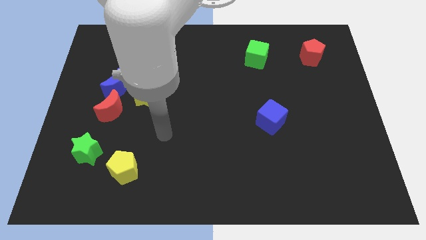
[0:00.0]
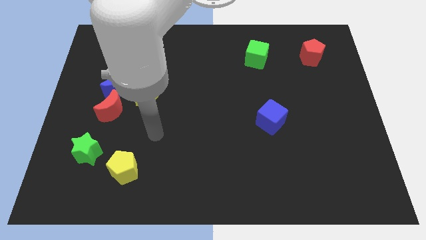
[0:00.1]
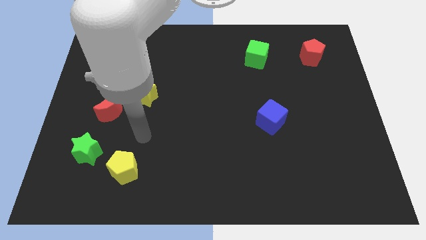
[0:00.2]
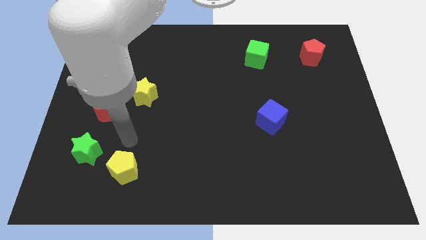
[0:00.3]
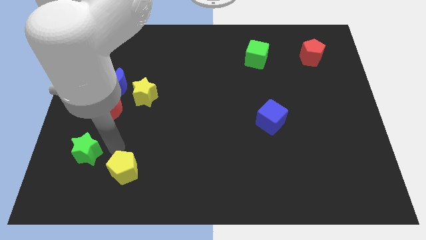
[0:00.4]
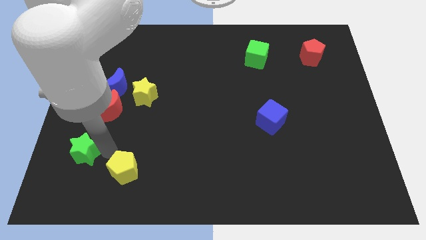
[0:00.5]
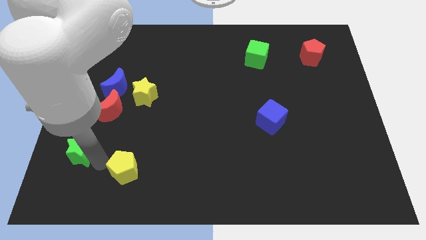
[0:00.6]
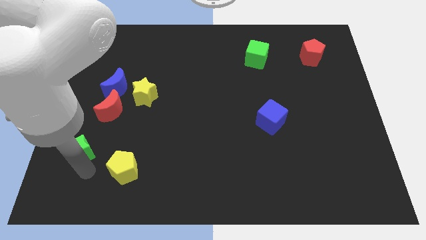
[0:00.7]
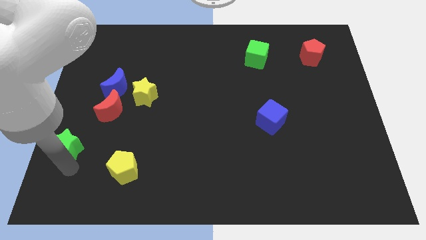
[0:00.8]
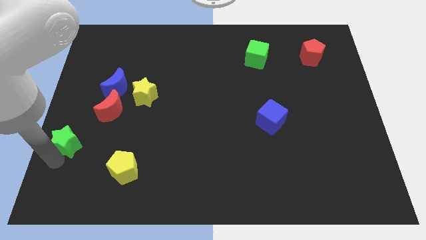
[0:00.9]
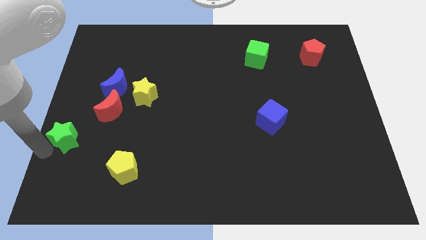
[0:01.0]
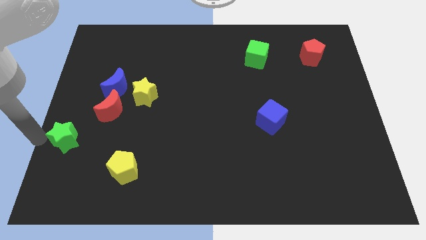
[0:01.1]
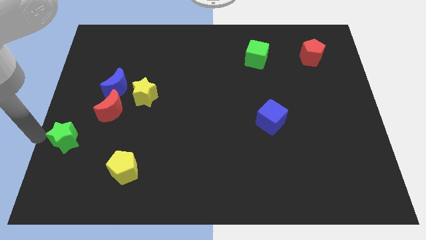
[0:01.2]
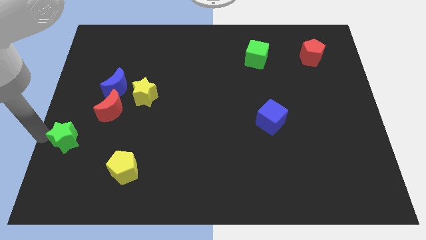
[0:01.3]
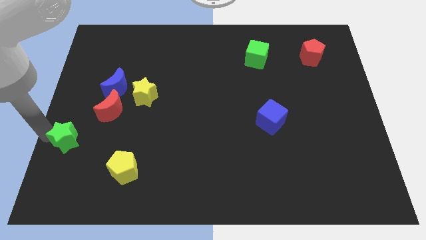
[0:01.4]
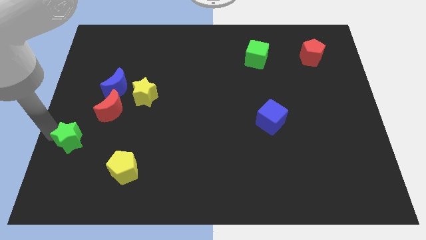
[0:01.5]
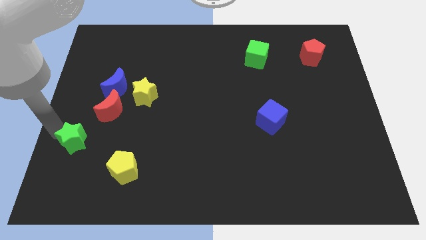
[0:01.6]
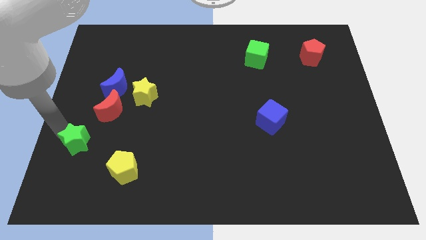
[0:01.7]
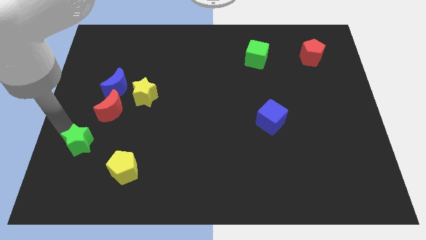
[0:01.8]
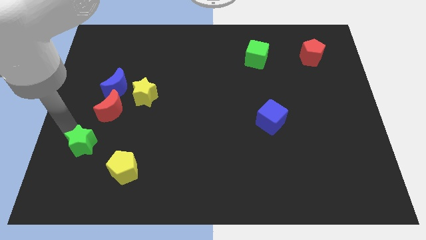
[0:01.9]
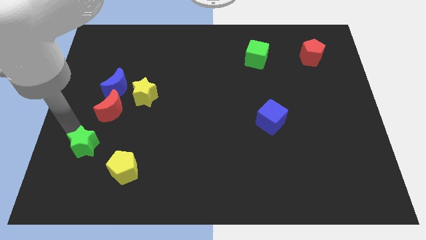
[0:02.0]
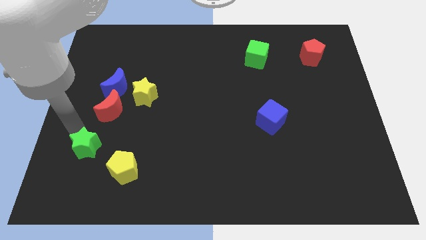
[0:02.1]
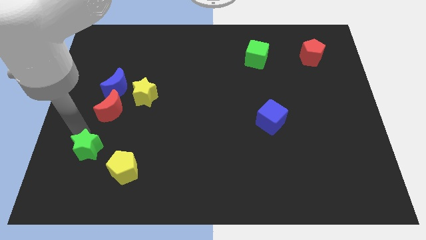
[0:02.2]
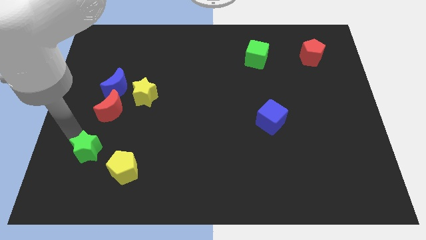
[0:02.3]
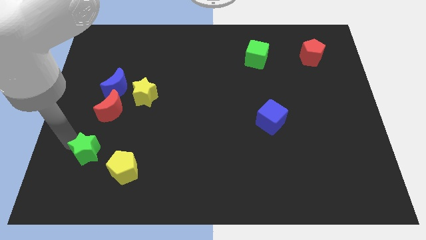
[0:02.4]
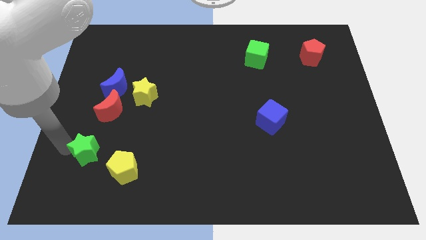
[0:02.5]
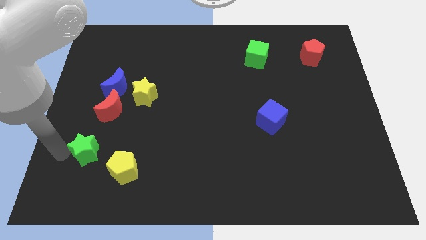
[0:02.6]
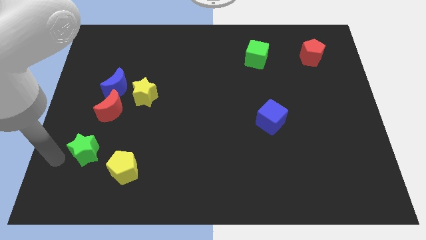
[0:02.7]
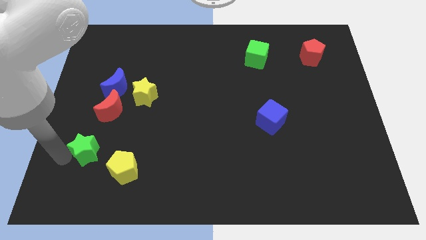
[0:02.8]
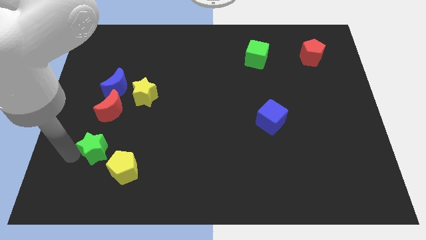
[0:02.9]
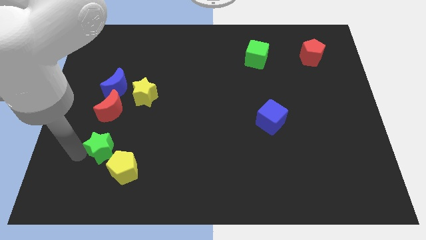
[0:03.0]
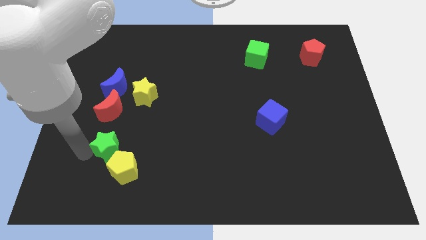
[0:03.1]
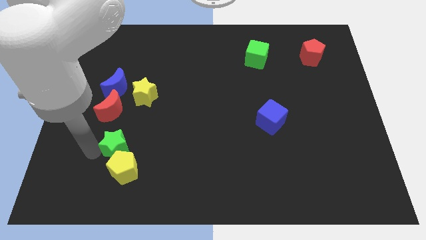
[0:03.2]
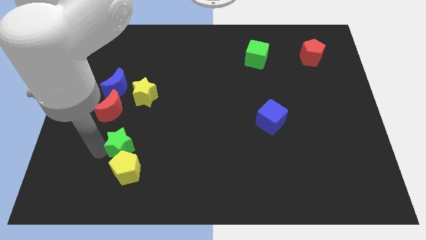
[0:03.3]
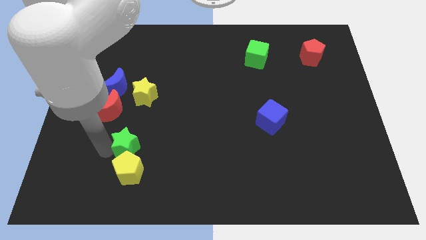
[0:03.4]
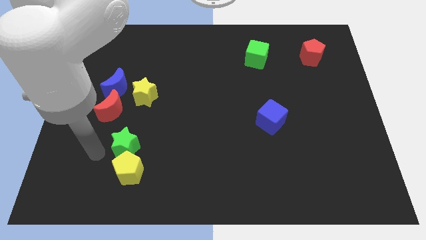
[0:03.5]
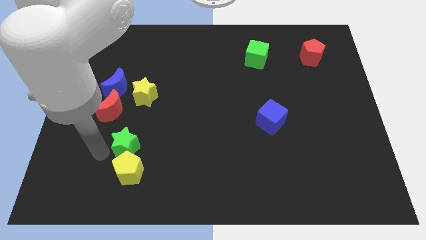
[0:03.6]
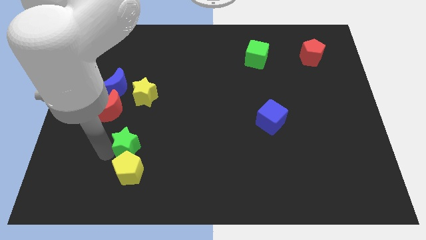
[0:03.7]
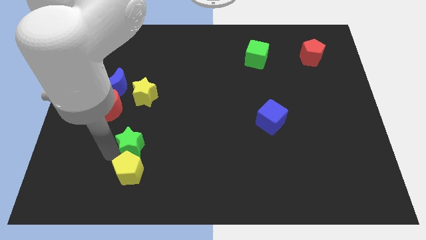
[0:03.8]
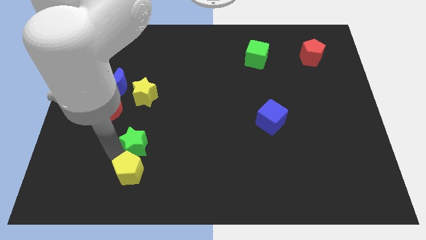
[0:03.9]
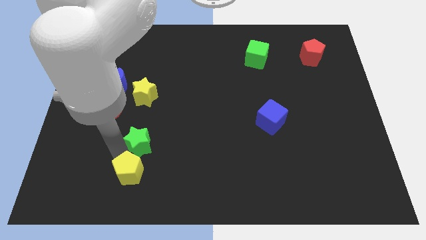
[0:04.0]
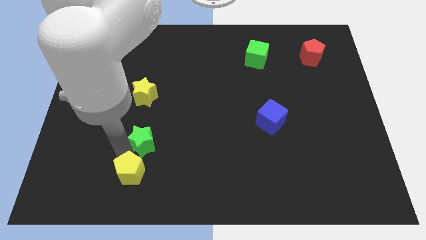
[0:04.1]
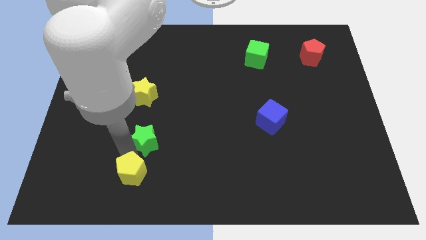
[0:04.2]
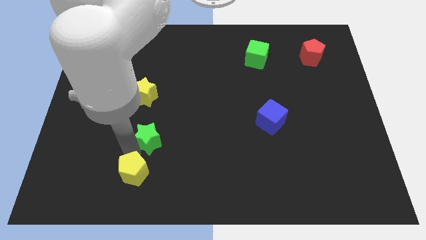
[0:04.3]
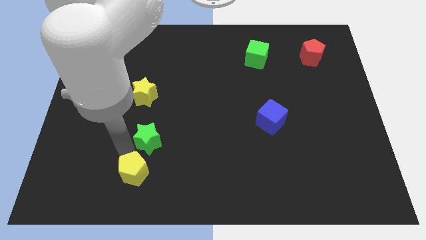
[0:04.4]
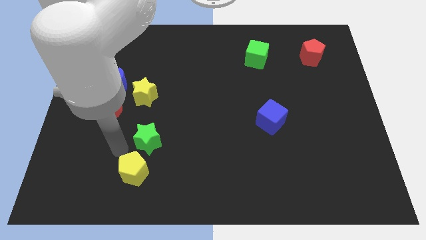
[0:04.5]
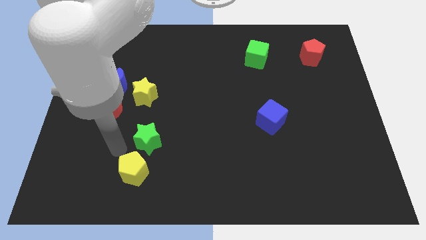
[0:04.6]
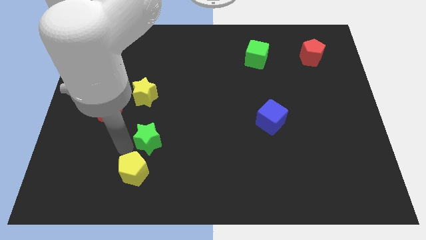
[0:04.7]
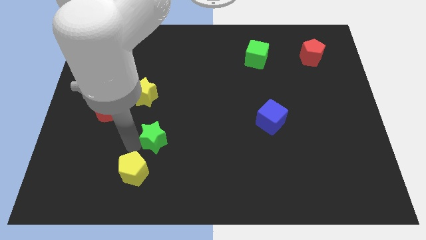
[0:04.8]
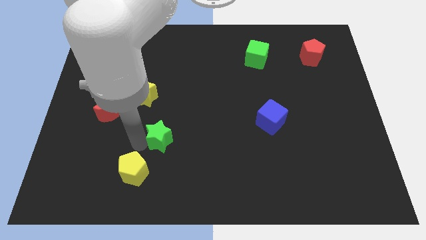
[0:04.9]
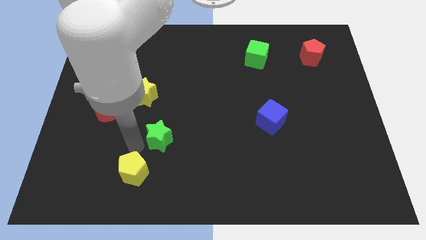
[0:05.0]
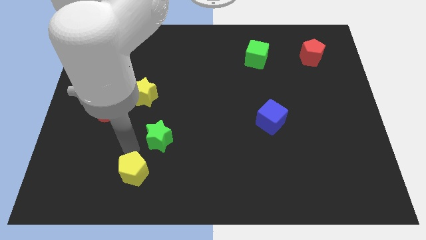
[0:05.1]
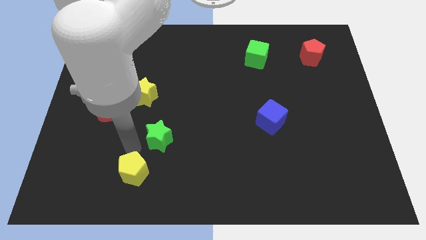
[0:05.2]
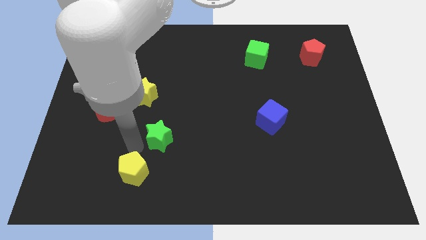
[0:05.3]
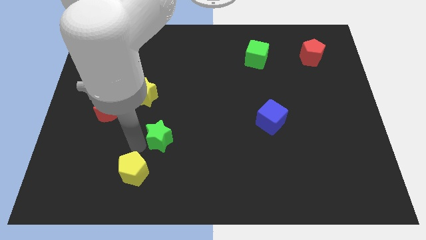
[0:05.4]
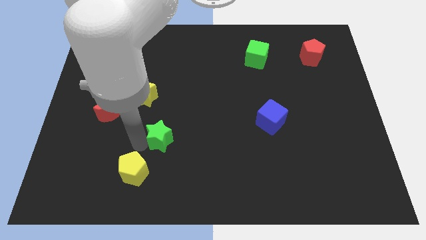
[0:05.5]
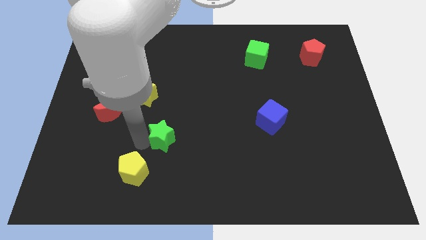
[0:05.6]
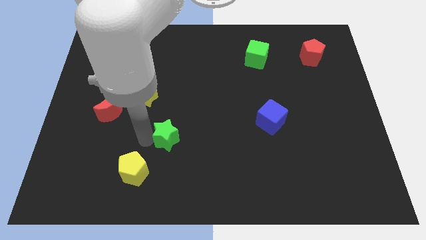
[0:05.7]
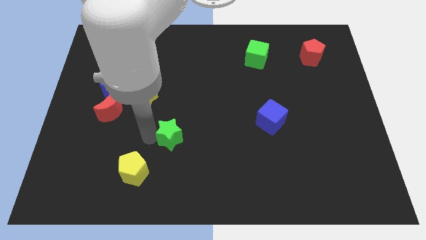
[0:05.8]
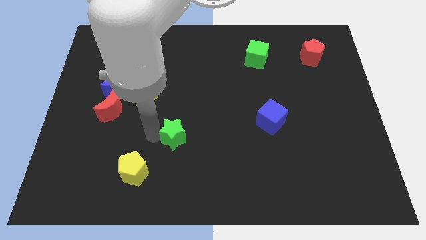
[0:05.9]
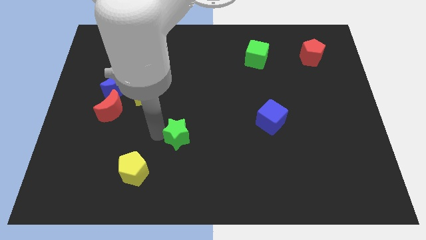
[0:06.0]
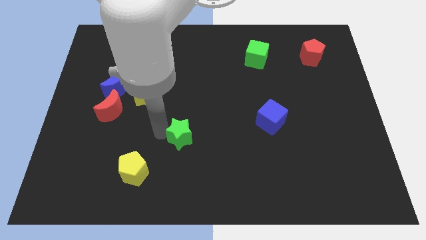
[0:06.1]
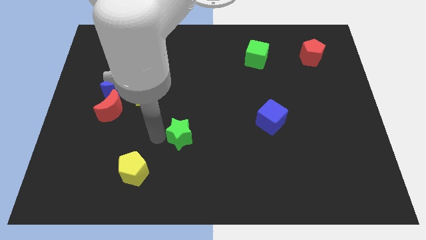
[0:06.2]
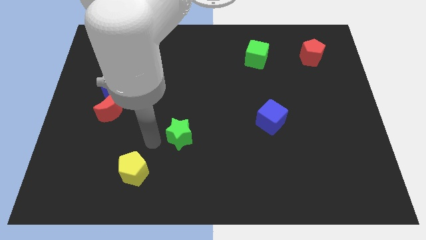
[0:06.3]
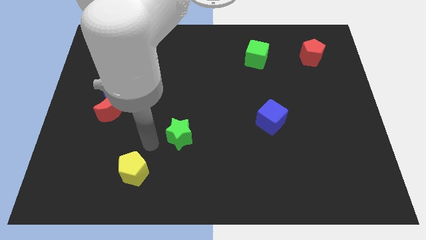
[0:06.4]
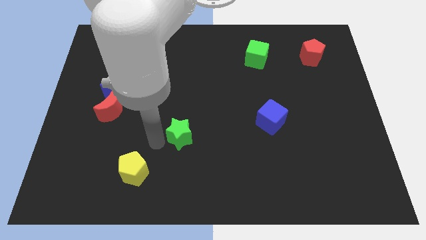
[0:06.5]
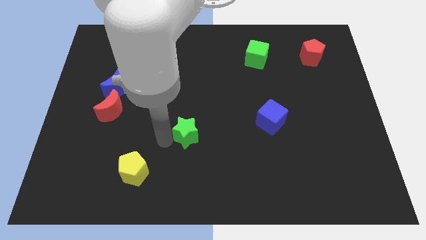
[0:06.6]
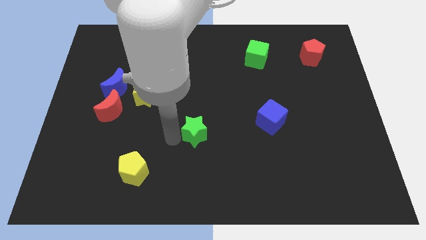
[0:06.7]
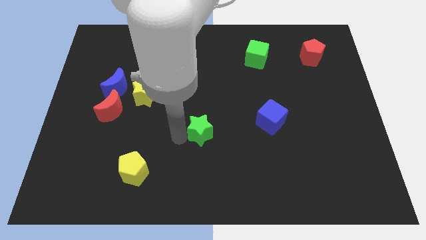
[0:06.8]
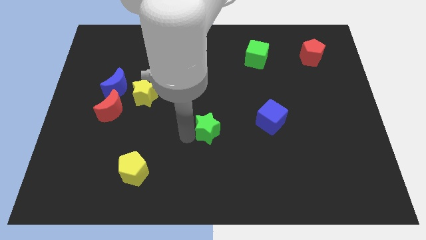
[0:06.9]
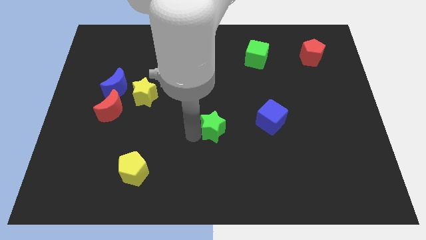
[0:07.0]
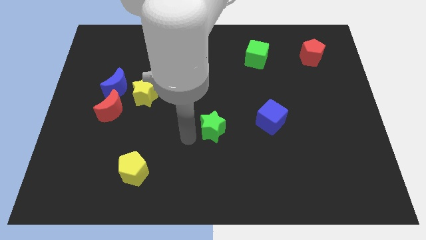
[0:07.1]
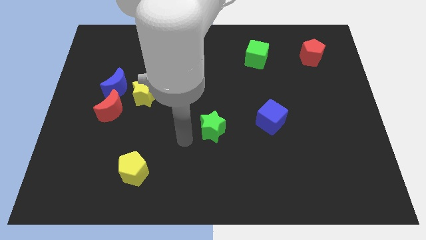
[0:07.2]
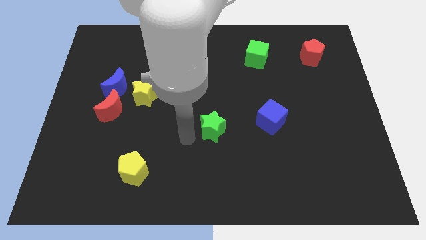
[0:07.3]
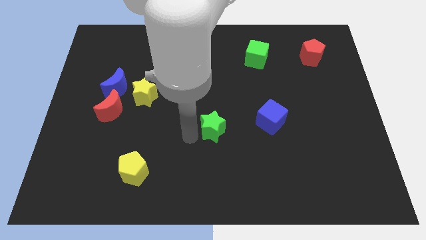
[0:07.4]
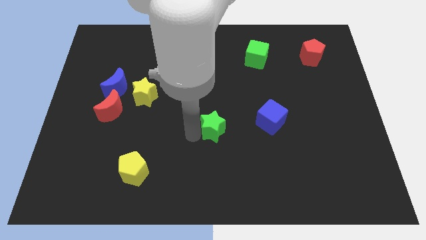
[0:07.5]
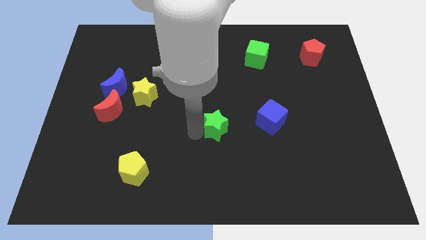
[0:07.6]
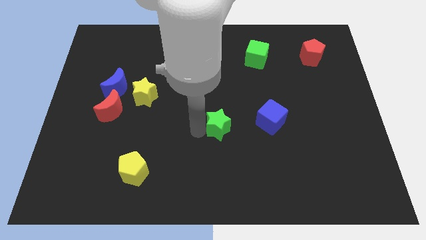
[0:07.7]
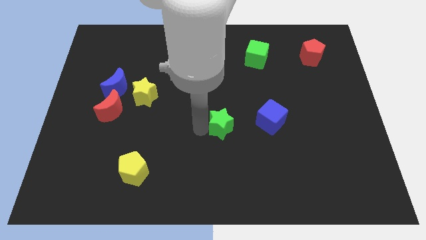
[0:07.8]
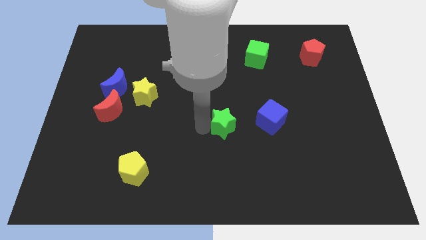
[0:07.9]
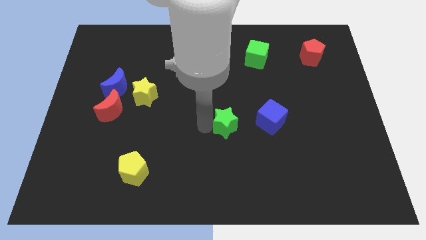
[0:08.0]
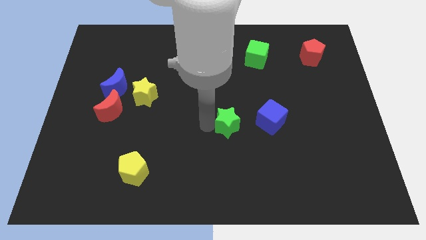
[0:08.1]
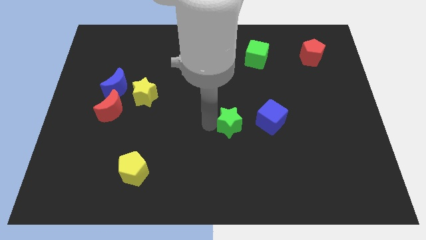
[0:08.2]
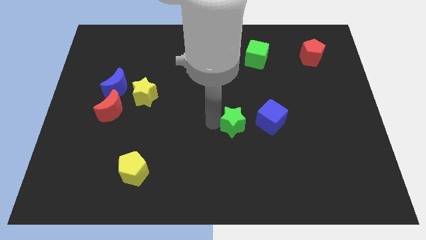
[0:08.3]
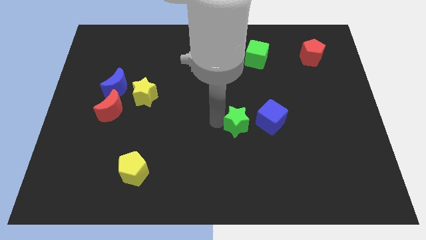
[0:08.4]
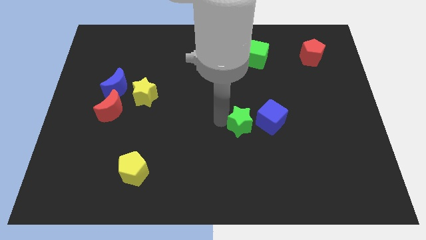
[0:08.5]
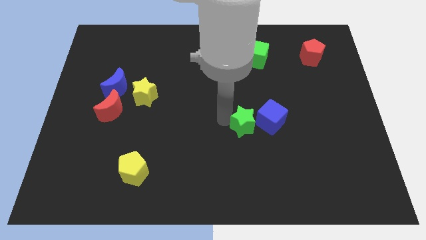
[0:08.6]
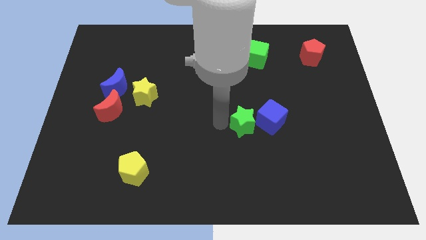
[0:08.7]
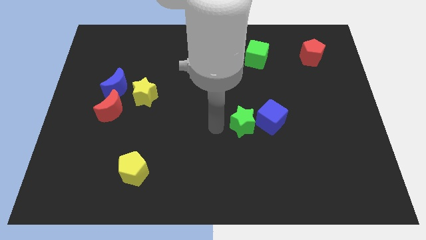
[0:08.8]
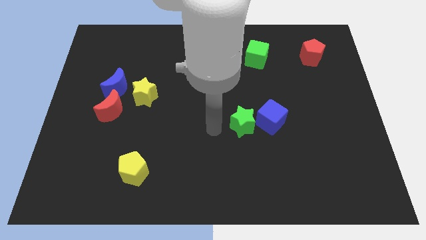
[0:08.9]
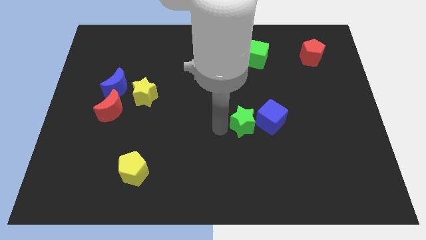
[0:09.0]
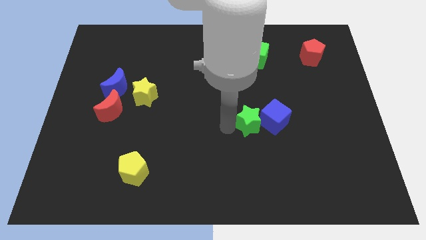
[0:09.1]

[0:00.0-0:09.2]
put the green star towards the blue cube
